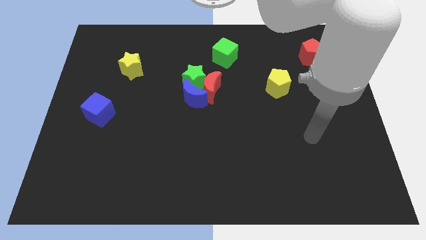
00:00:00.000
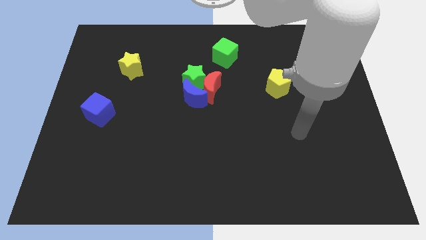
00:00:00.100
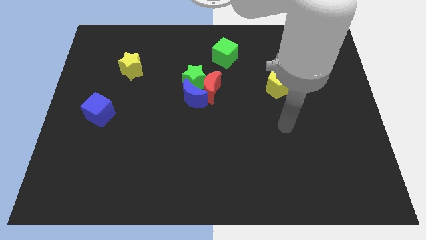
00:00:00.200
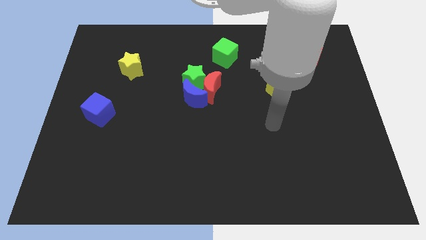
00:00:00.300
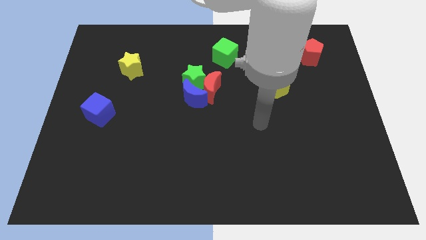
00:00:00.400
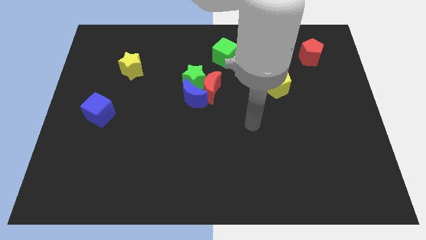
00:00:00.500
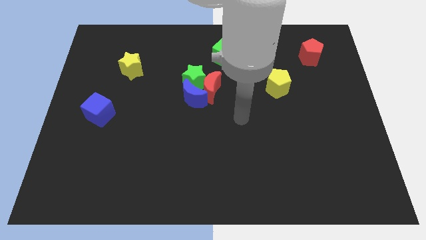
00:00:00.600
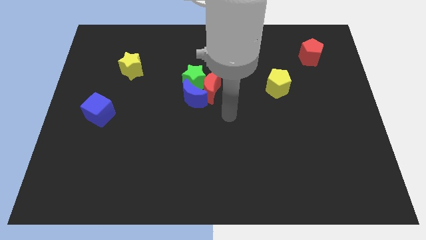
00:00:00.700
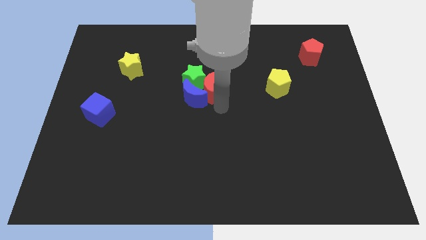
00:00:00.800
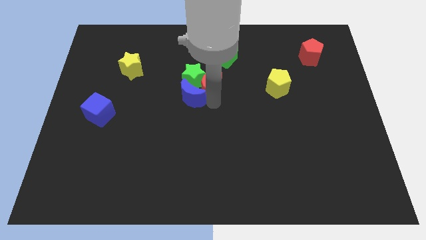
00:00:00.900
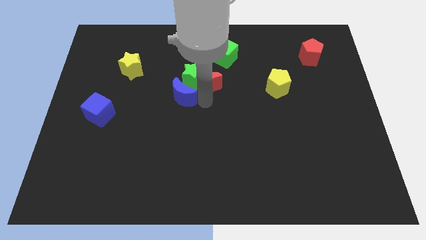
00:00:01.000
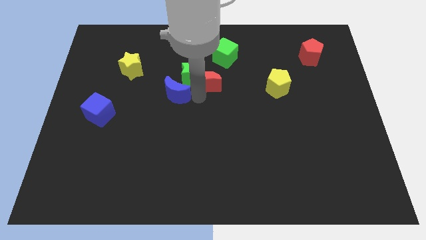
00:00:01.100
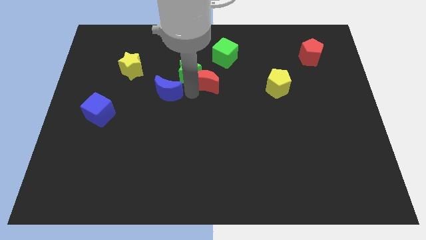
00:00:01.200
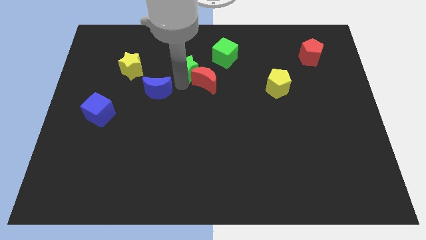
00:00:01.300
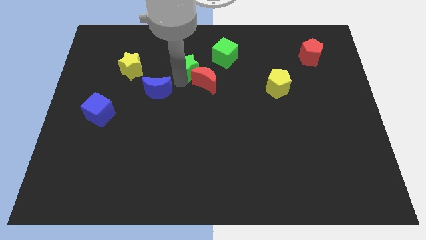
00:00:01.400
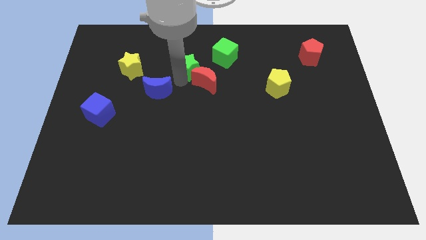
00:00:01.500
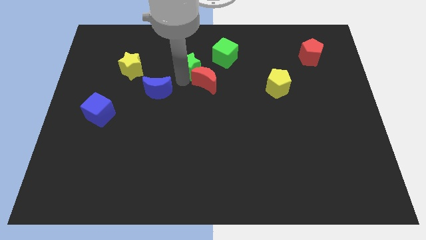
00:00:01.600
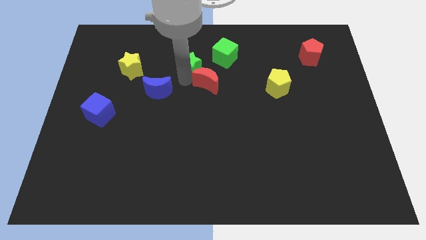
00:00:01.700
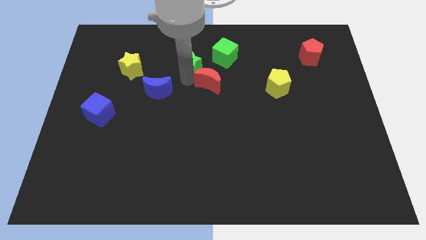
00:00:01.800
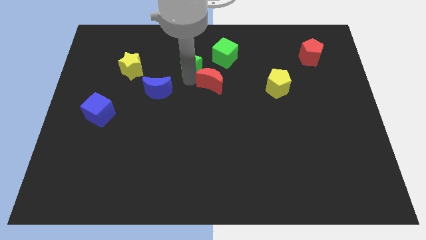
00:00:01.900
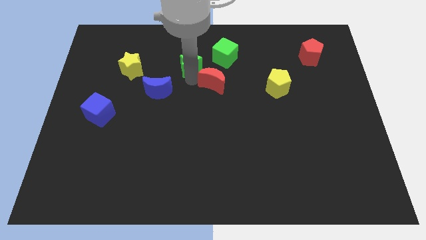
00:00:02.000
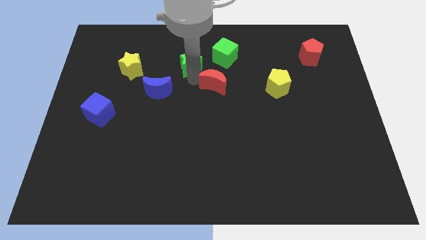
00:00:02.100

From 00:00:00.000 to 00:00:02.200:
separate the red moon from the green star and blue moon

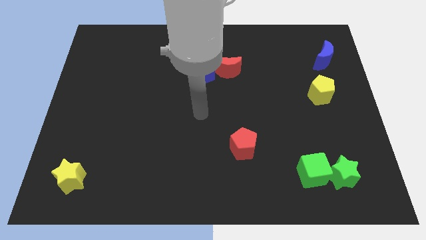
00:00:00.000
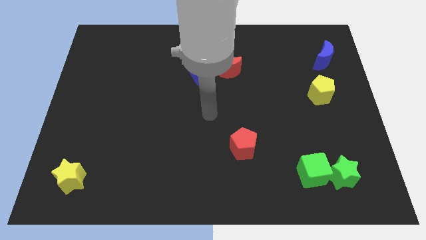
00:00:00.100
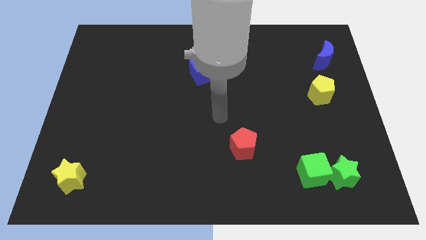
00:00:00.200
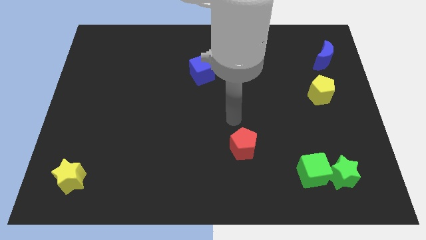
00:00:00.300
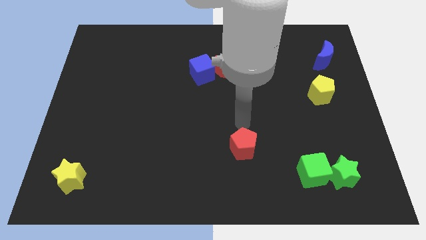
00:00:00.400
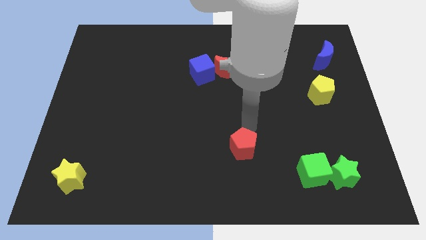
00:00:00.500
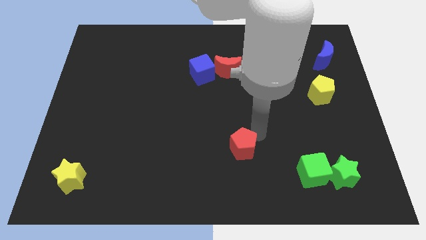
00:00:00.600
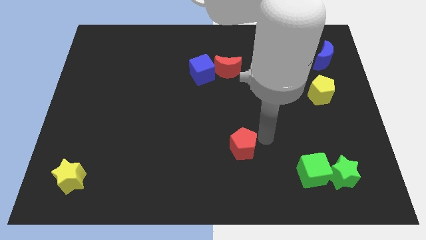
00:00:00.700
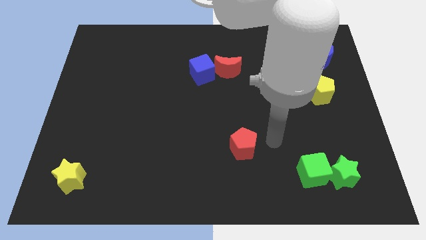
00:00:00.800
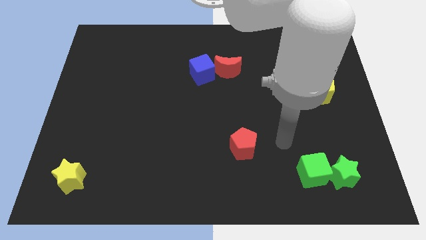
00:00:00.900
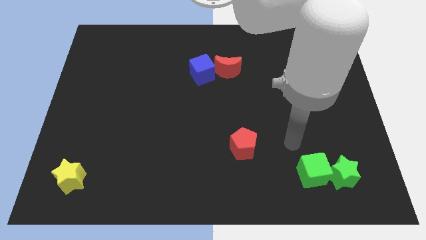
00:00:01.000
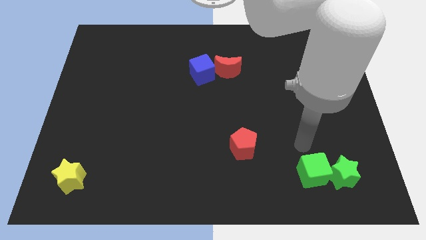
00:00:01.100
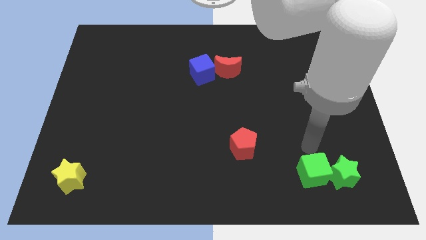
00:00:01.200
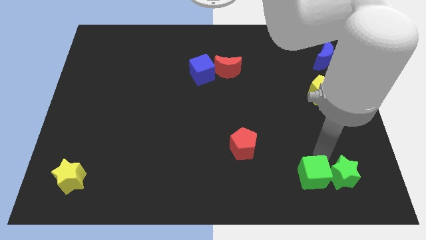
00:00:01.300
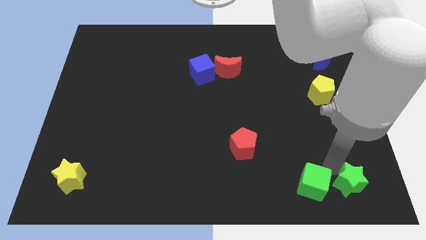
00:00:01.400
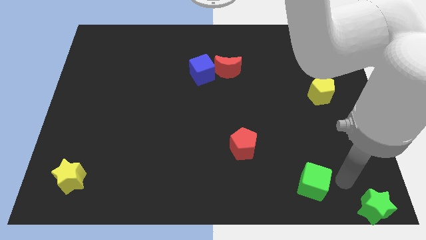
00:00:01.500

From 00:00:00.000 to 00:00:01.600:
move the green cube away from the green star

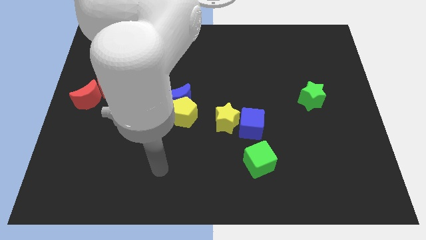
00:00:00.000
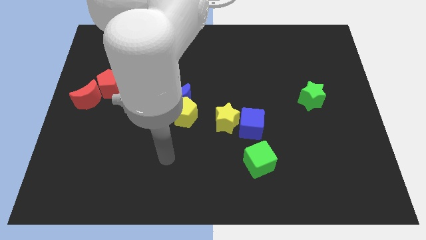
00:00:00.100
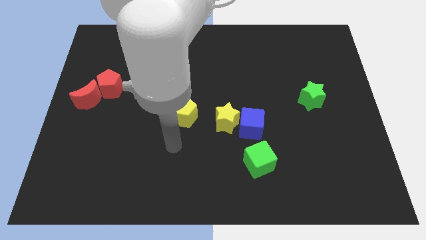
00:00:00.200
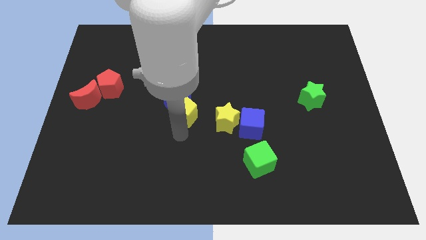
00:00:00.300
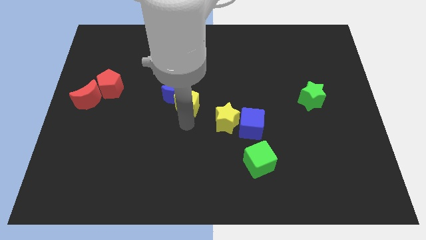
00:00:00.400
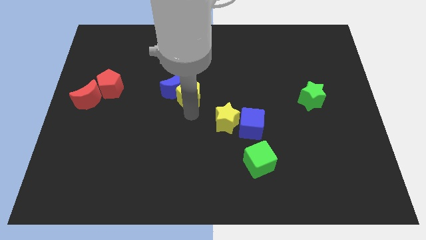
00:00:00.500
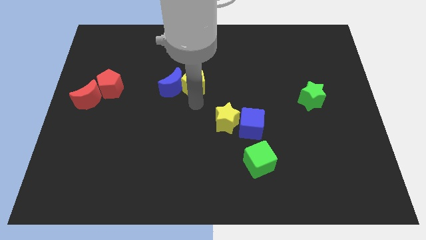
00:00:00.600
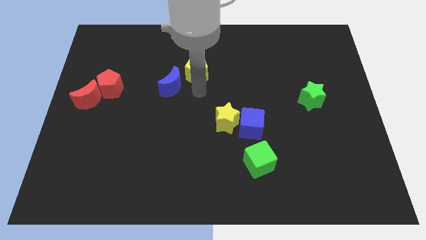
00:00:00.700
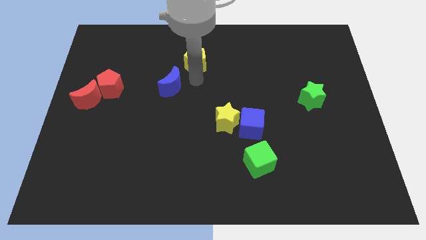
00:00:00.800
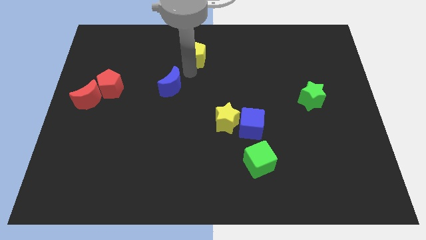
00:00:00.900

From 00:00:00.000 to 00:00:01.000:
separate the blue moon from the yellow pentagon

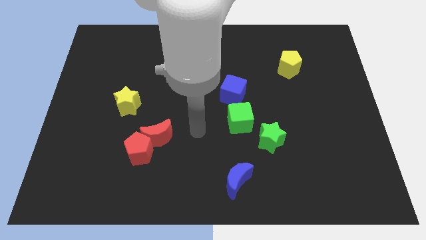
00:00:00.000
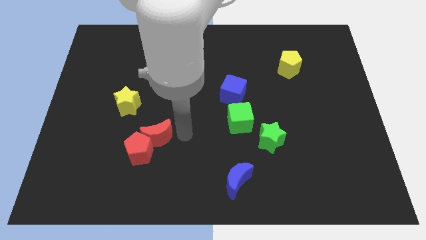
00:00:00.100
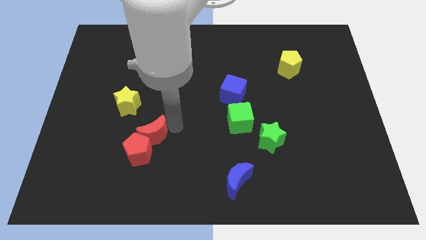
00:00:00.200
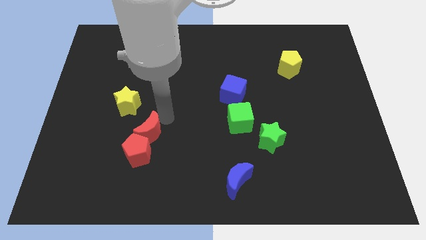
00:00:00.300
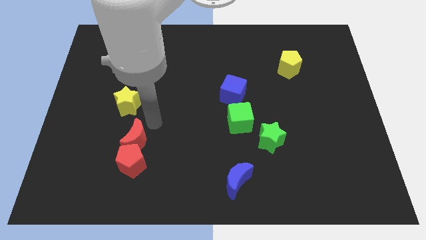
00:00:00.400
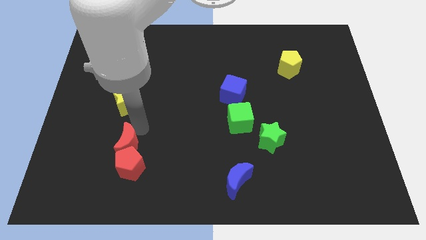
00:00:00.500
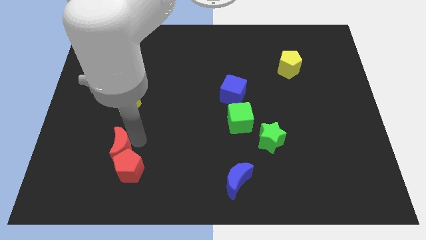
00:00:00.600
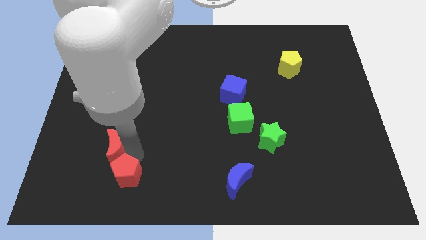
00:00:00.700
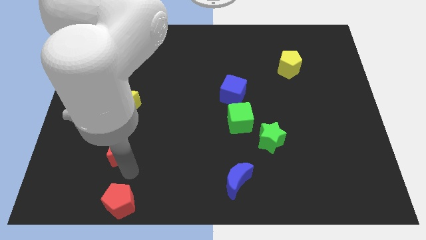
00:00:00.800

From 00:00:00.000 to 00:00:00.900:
separate the red moon from the red pentagon

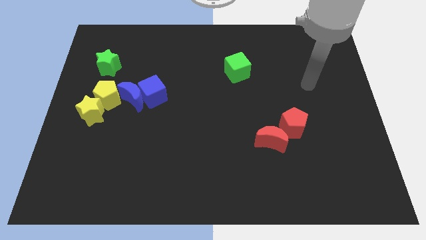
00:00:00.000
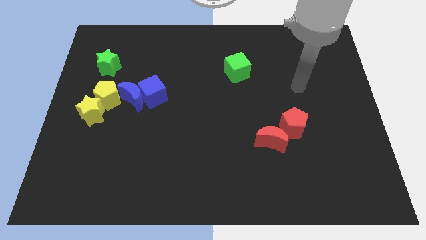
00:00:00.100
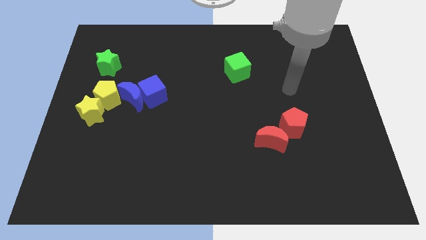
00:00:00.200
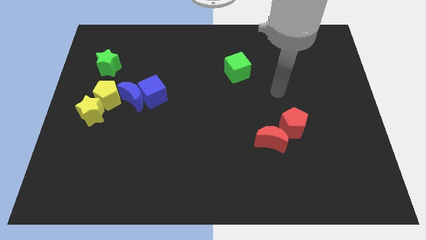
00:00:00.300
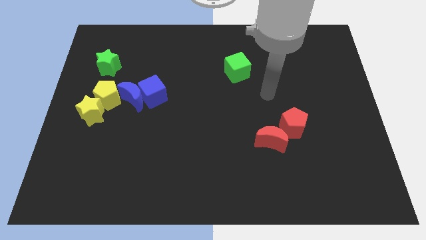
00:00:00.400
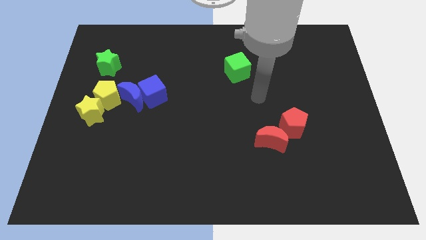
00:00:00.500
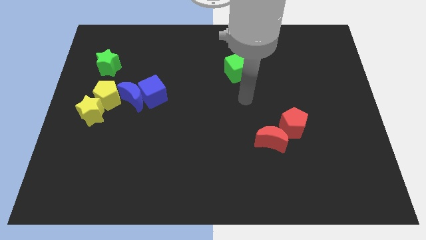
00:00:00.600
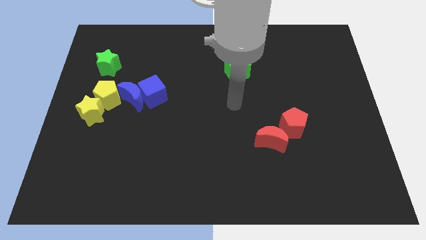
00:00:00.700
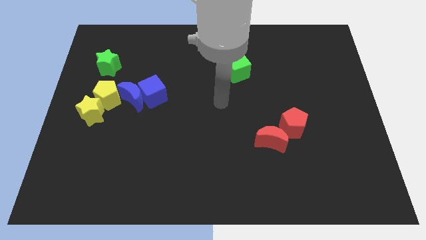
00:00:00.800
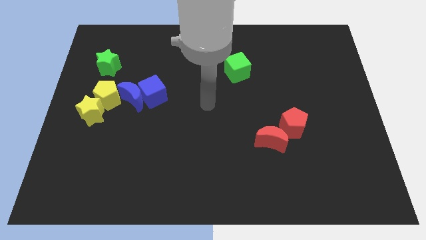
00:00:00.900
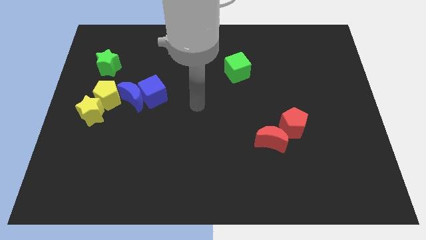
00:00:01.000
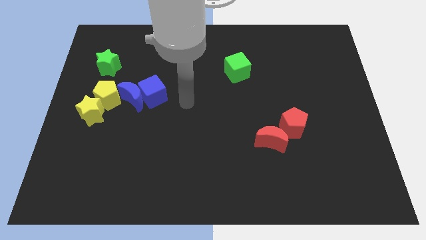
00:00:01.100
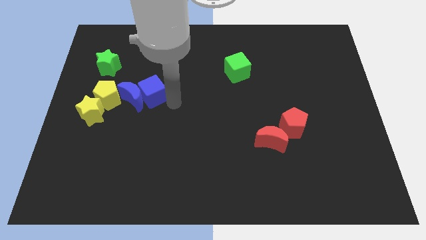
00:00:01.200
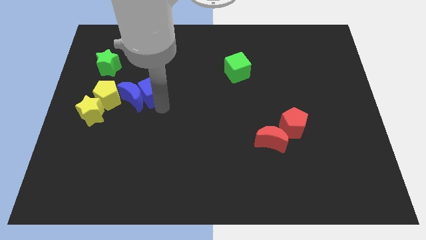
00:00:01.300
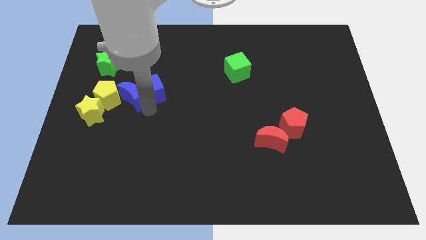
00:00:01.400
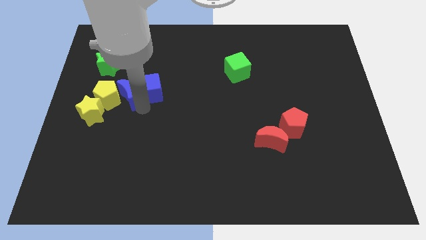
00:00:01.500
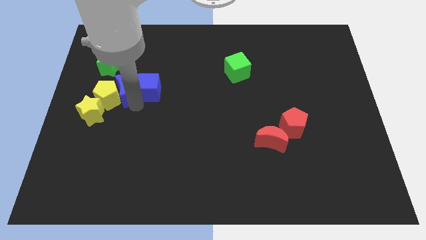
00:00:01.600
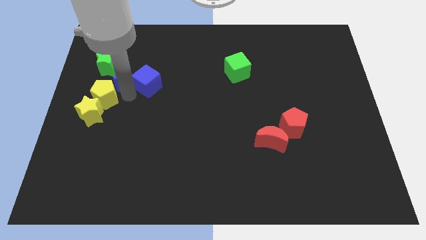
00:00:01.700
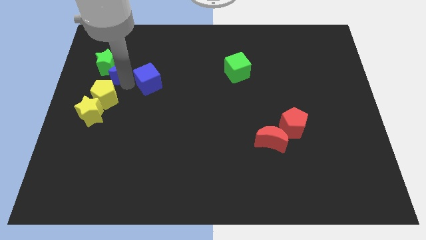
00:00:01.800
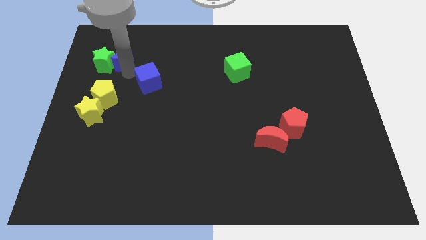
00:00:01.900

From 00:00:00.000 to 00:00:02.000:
separate the blue cube from the blue moon

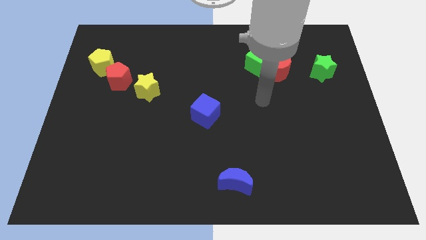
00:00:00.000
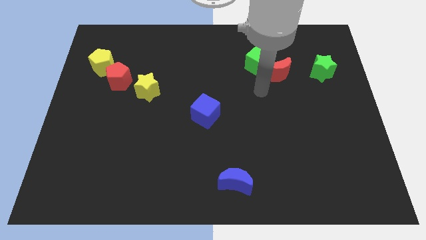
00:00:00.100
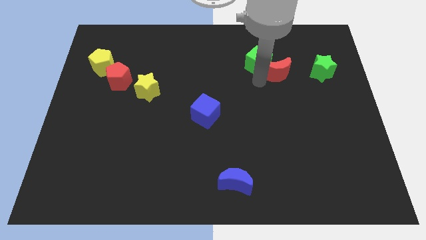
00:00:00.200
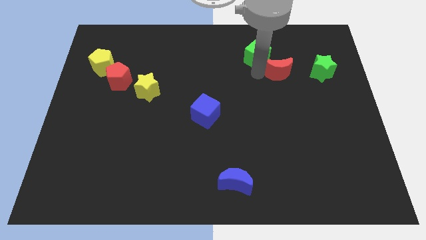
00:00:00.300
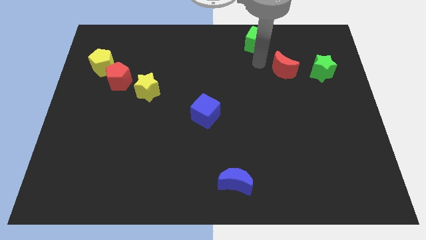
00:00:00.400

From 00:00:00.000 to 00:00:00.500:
separate the red moon from the green cube

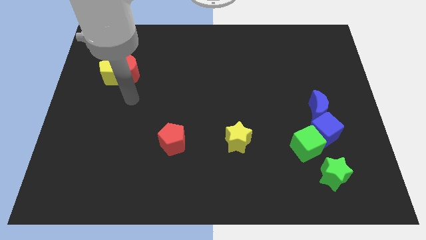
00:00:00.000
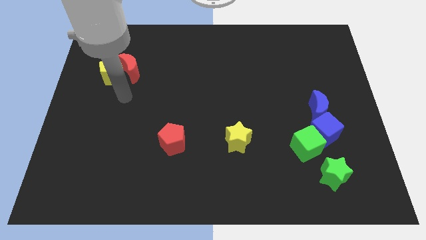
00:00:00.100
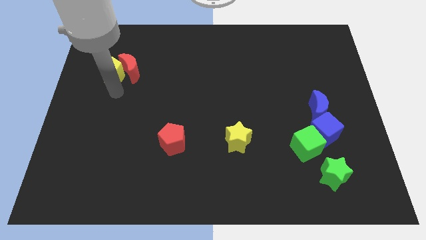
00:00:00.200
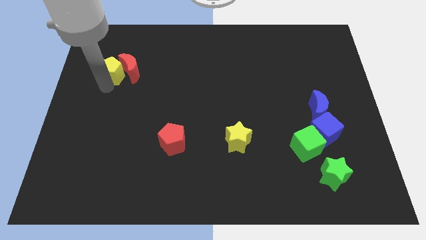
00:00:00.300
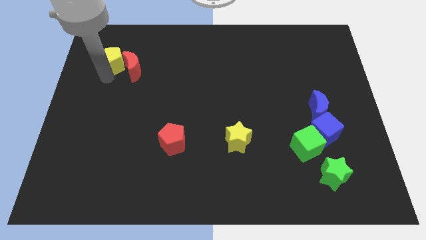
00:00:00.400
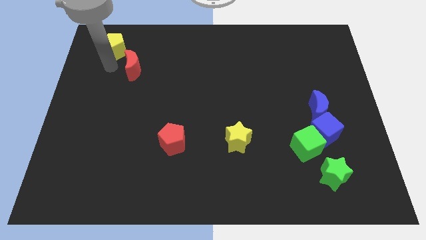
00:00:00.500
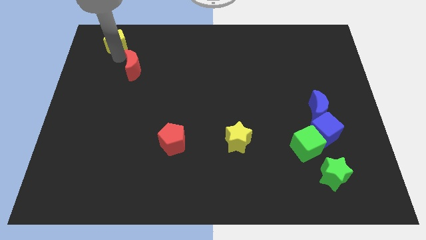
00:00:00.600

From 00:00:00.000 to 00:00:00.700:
move the red moon away from the yellow pentagon

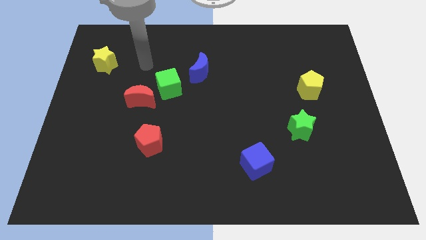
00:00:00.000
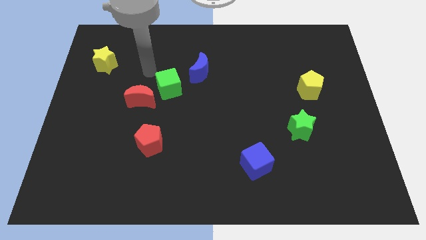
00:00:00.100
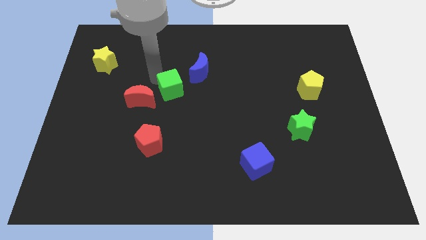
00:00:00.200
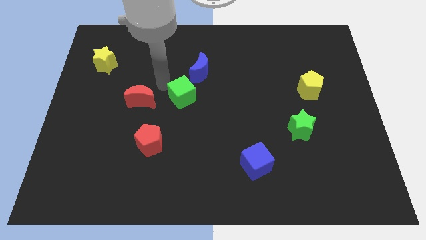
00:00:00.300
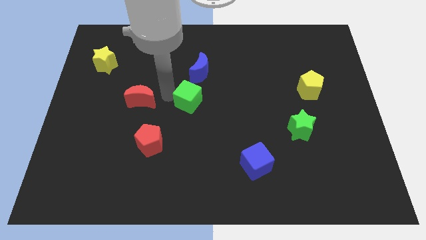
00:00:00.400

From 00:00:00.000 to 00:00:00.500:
pull the red moon apart from the green cube
